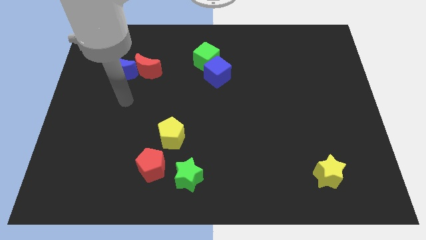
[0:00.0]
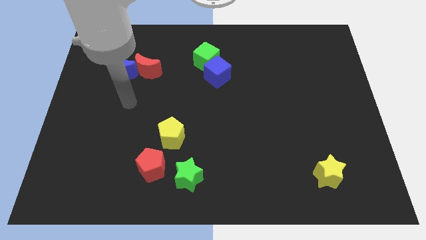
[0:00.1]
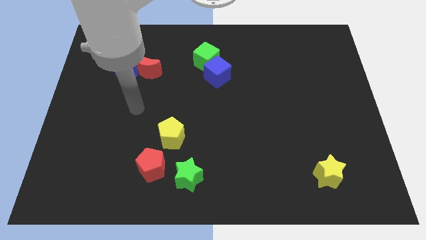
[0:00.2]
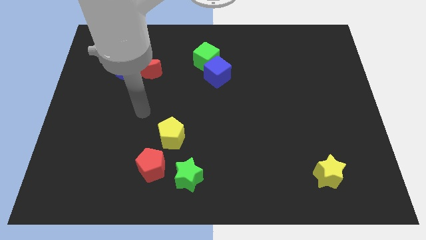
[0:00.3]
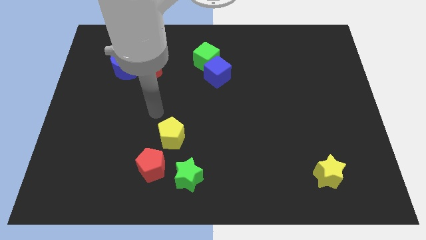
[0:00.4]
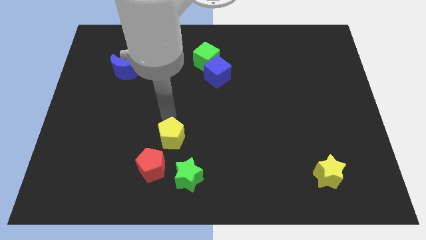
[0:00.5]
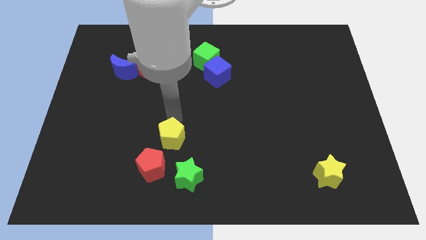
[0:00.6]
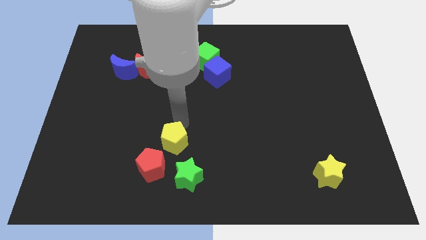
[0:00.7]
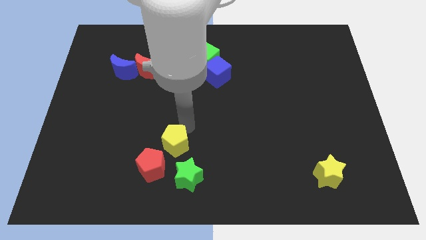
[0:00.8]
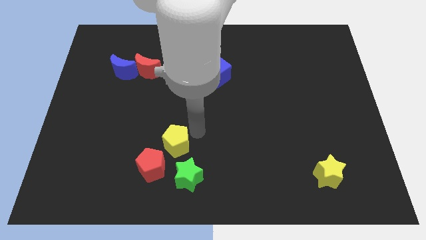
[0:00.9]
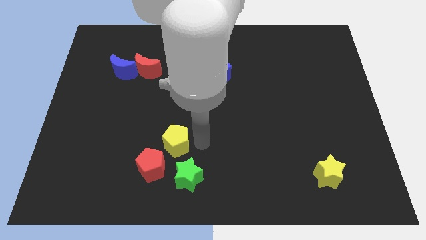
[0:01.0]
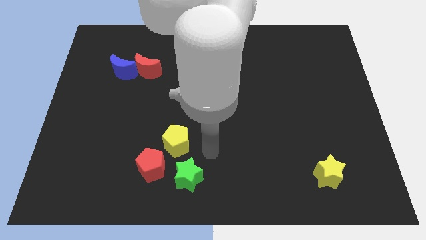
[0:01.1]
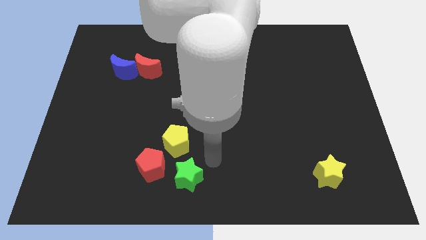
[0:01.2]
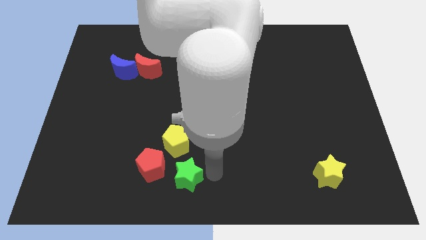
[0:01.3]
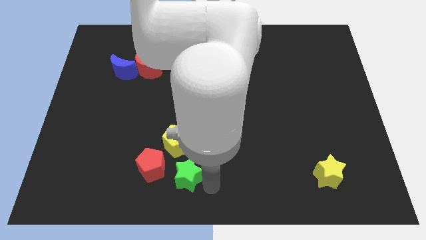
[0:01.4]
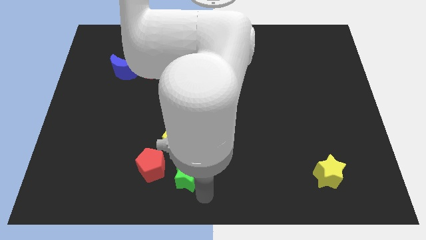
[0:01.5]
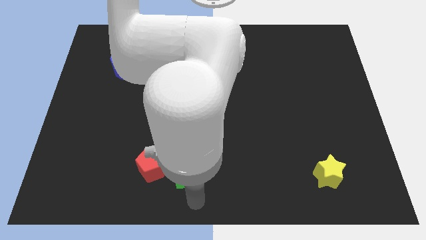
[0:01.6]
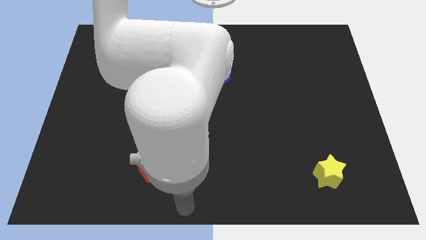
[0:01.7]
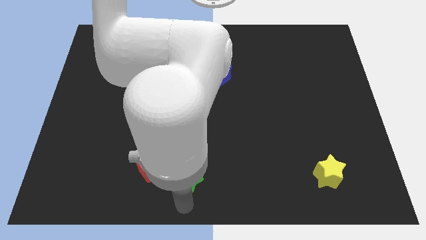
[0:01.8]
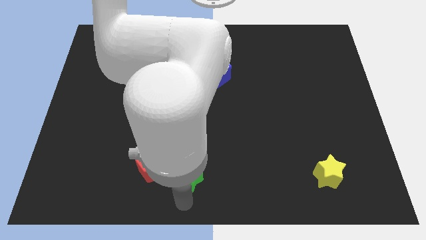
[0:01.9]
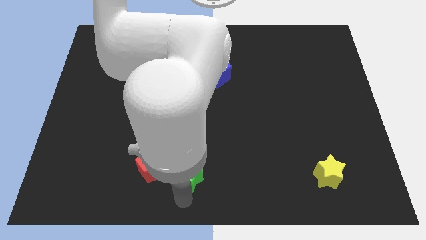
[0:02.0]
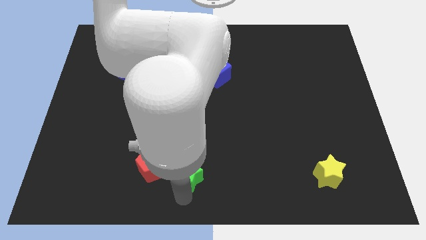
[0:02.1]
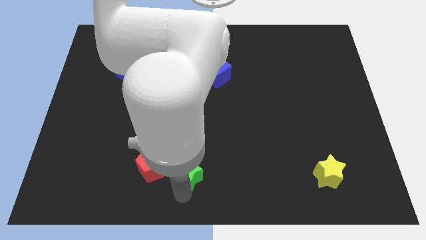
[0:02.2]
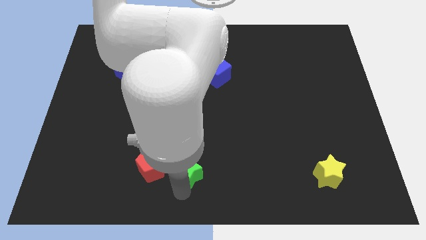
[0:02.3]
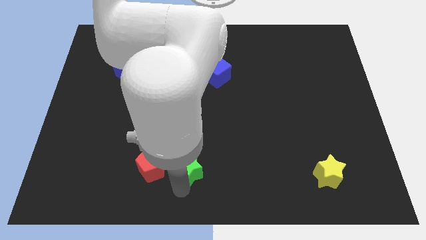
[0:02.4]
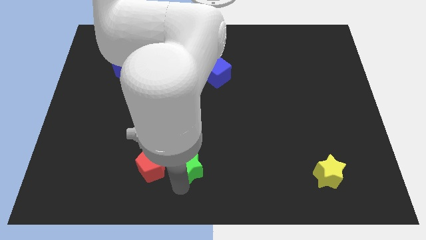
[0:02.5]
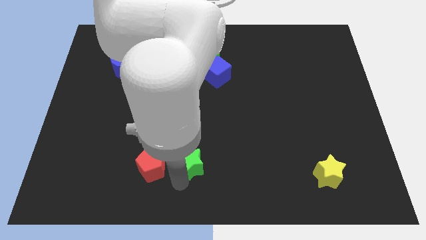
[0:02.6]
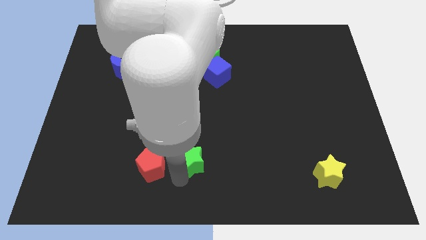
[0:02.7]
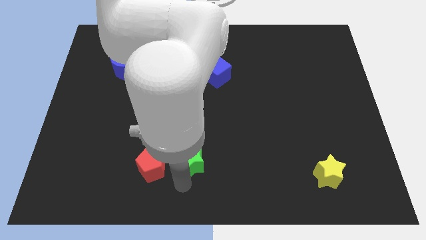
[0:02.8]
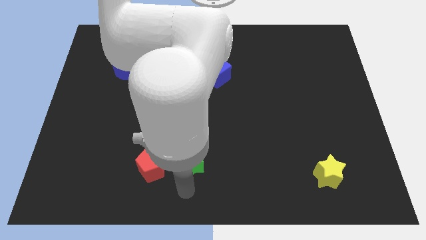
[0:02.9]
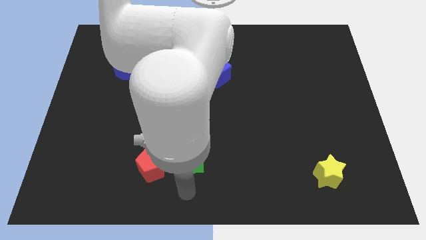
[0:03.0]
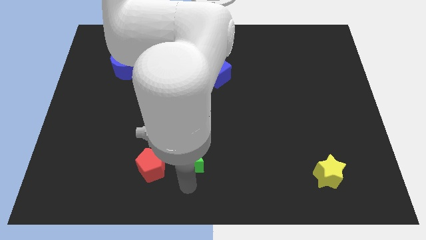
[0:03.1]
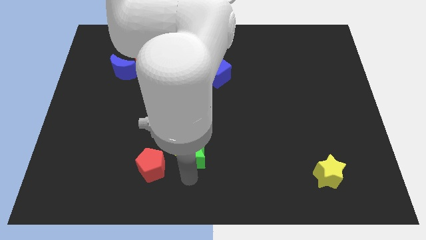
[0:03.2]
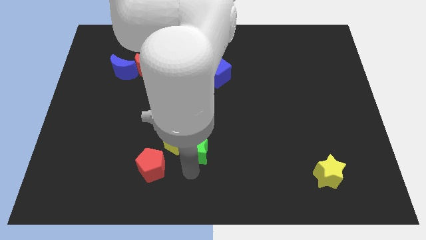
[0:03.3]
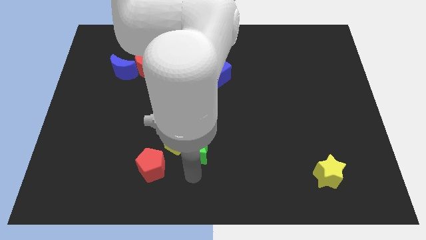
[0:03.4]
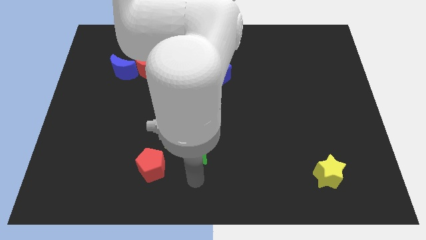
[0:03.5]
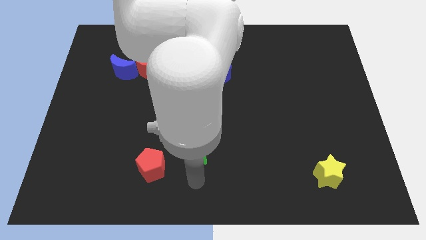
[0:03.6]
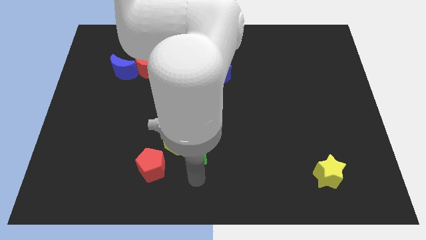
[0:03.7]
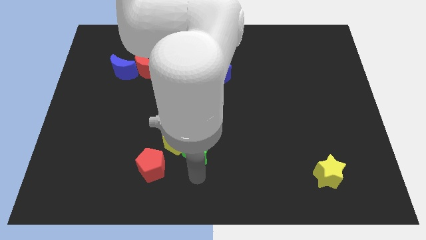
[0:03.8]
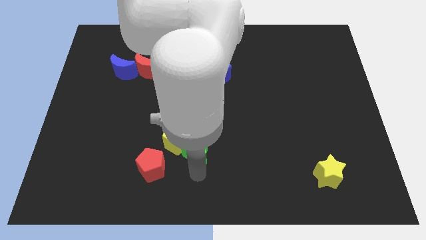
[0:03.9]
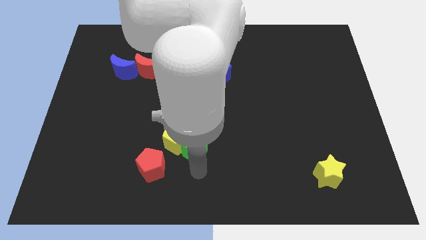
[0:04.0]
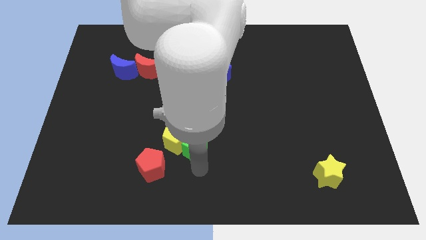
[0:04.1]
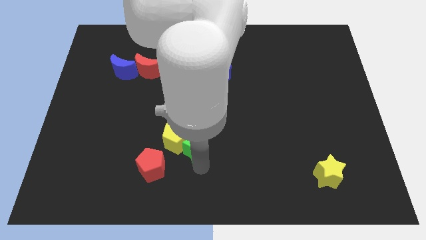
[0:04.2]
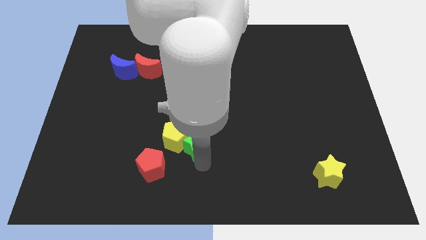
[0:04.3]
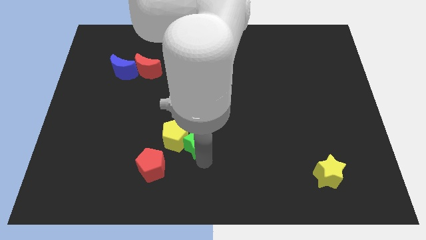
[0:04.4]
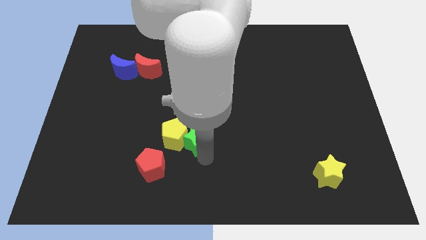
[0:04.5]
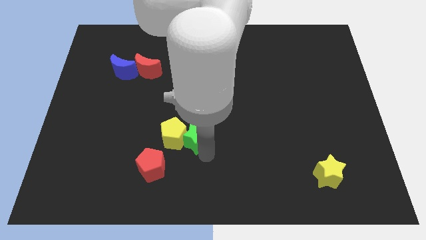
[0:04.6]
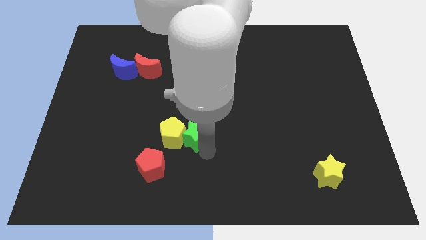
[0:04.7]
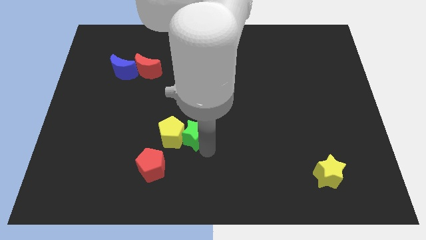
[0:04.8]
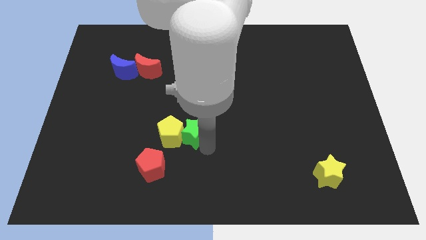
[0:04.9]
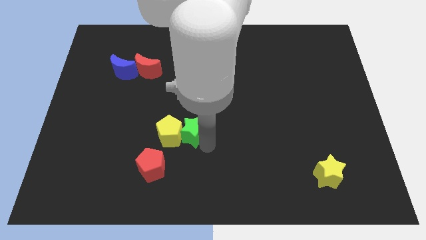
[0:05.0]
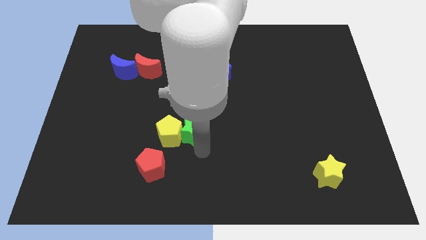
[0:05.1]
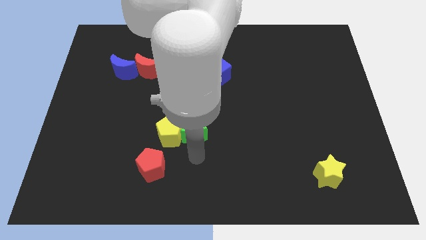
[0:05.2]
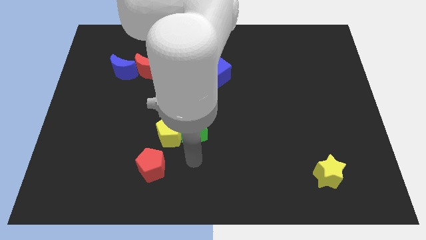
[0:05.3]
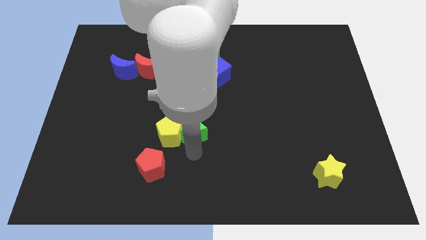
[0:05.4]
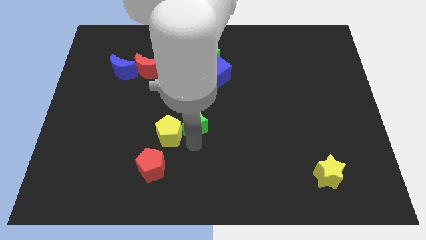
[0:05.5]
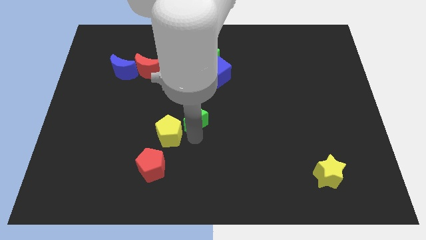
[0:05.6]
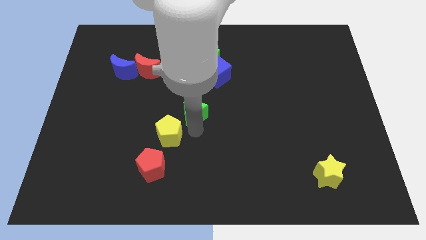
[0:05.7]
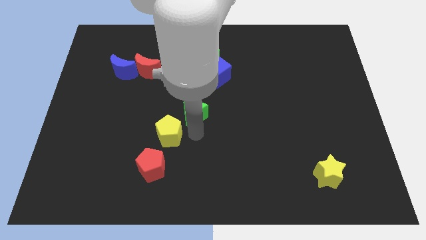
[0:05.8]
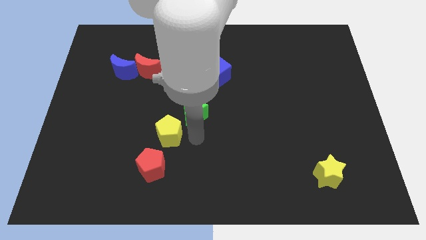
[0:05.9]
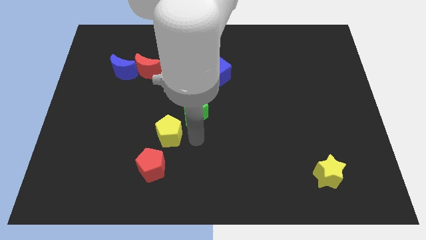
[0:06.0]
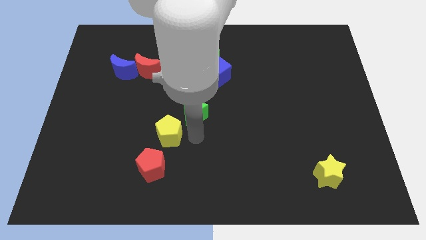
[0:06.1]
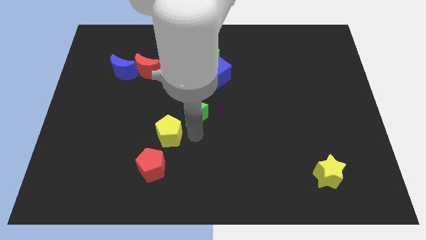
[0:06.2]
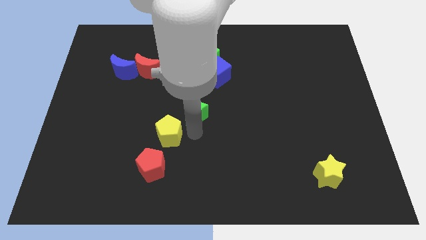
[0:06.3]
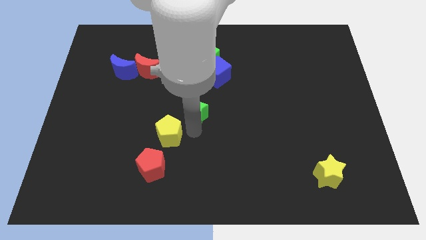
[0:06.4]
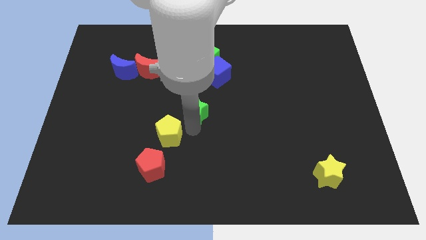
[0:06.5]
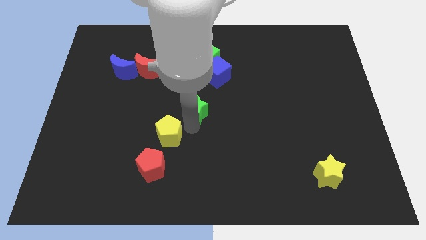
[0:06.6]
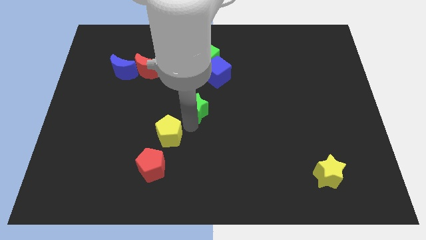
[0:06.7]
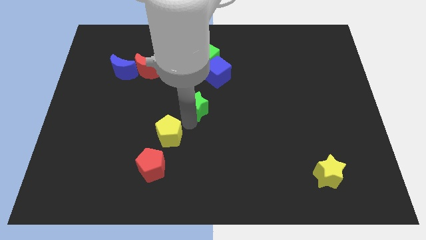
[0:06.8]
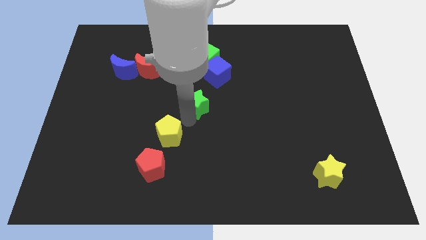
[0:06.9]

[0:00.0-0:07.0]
push the green star diagonally down and to the left of the blue cube

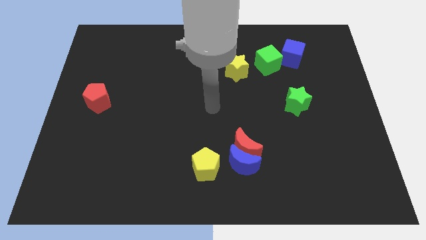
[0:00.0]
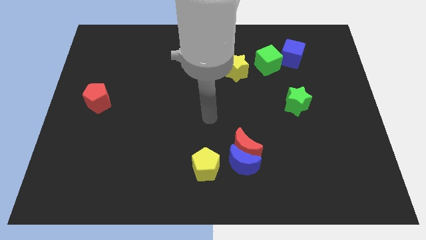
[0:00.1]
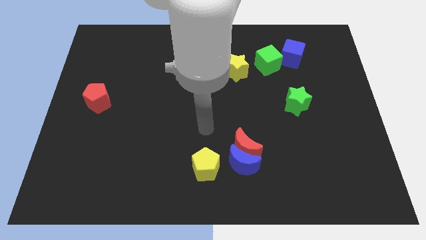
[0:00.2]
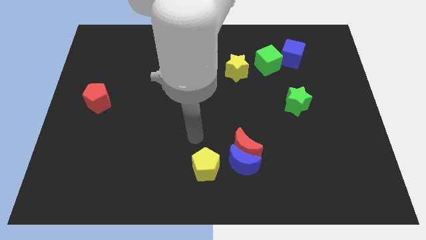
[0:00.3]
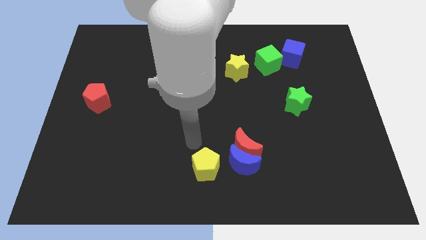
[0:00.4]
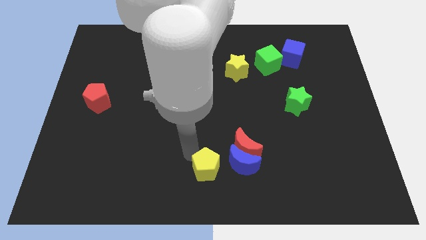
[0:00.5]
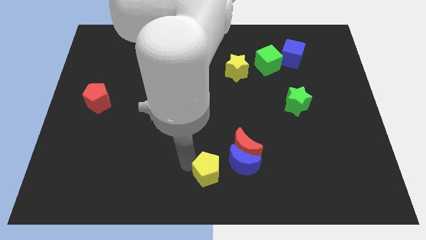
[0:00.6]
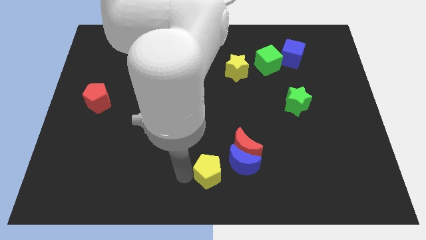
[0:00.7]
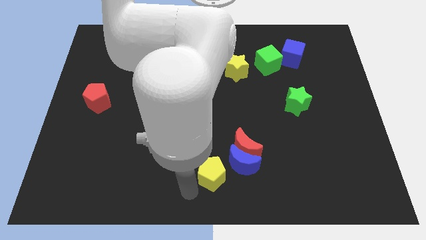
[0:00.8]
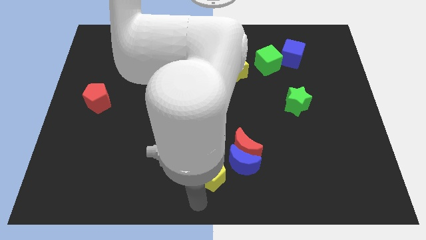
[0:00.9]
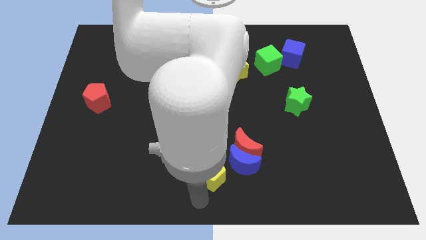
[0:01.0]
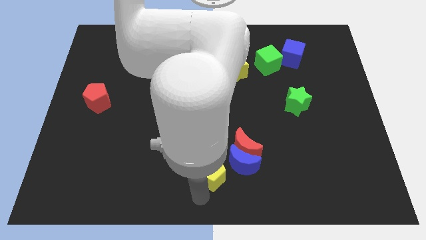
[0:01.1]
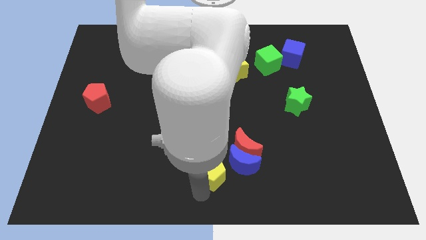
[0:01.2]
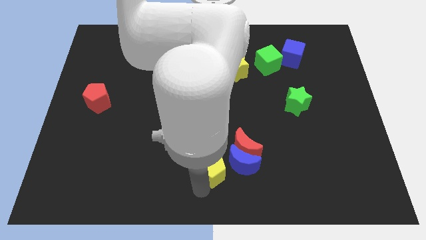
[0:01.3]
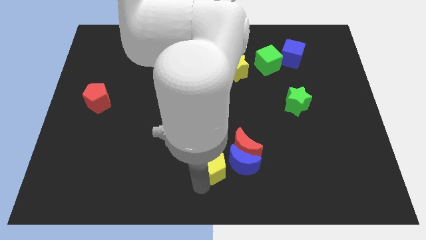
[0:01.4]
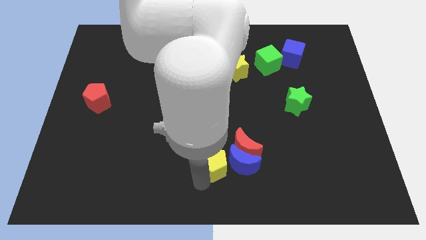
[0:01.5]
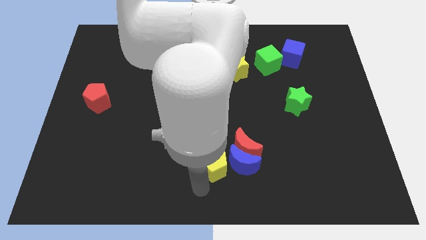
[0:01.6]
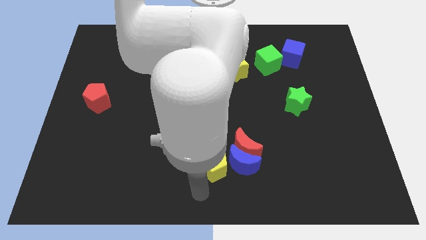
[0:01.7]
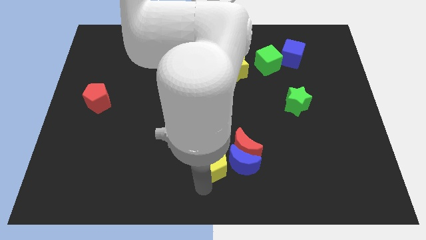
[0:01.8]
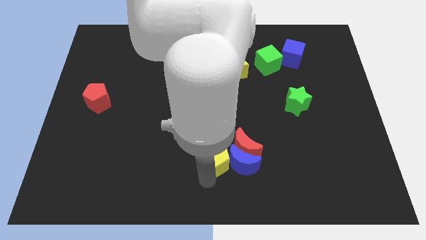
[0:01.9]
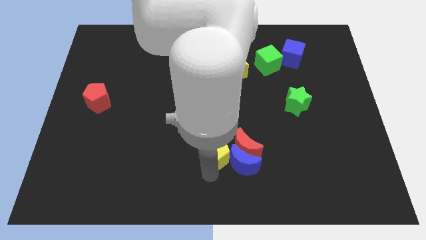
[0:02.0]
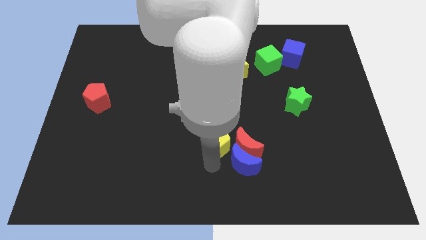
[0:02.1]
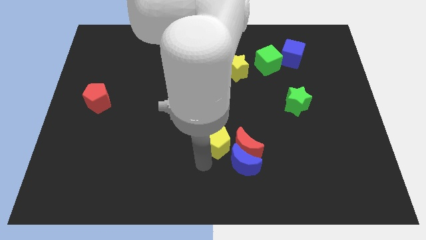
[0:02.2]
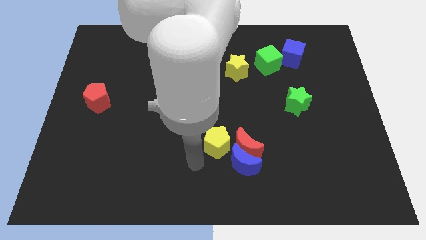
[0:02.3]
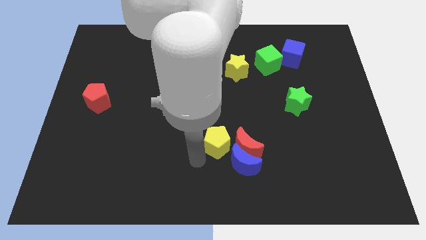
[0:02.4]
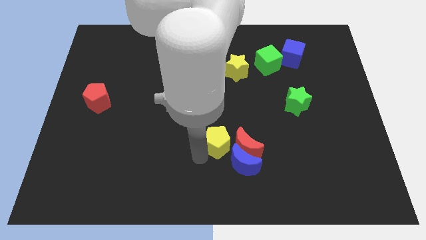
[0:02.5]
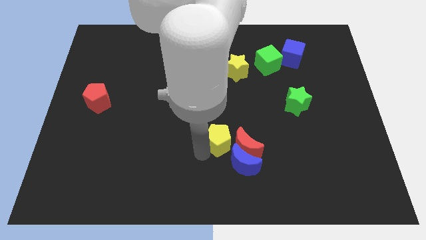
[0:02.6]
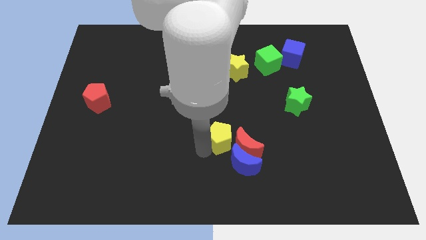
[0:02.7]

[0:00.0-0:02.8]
slide the yellow pentagon above the blue moon
